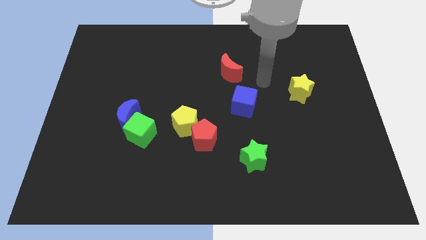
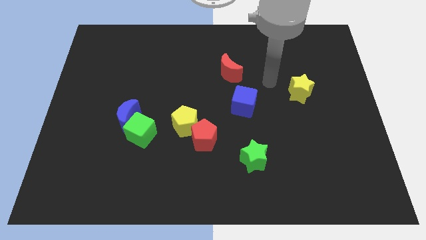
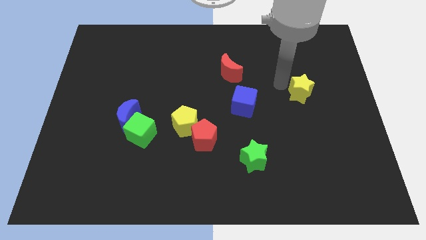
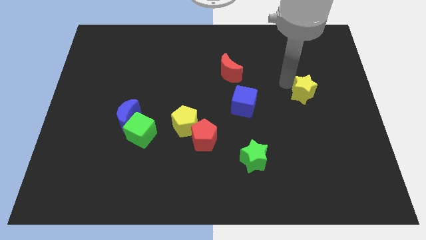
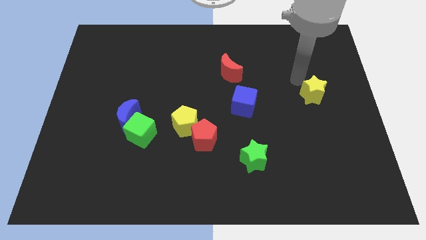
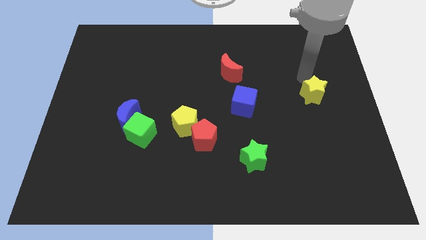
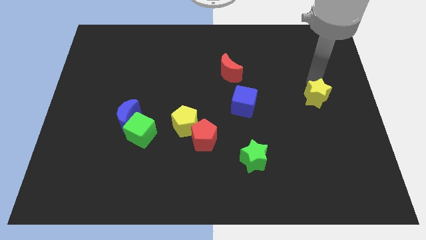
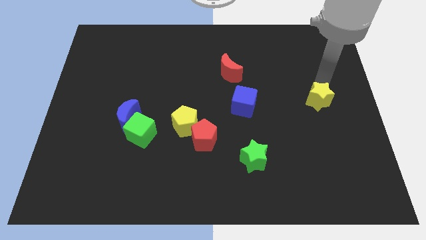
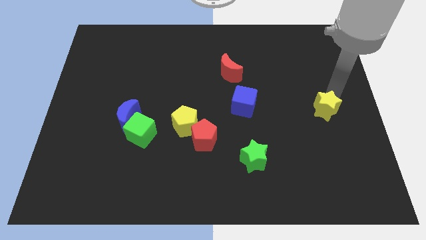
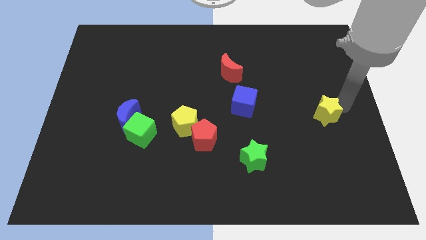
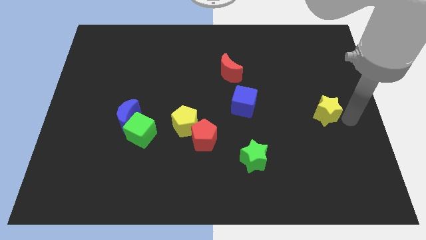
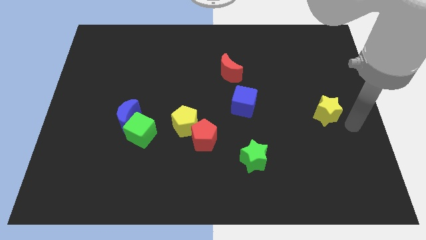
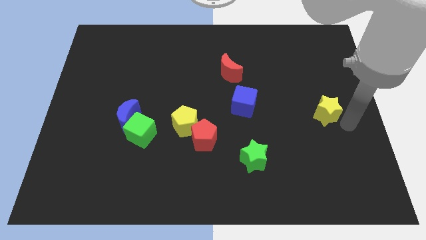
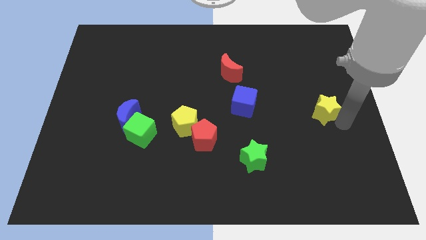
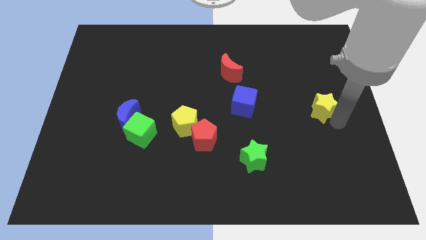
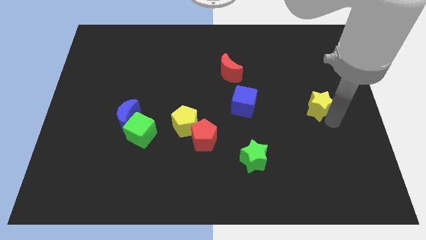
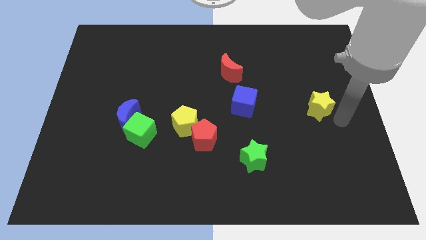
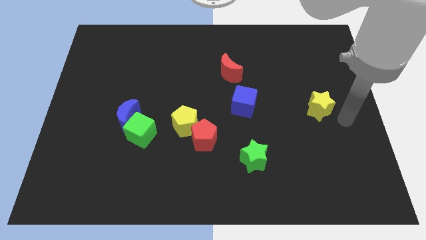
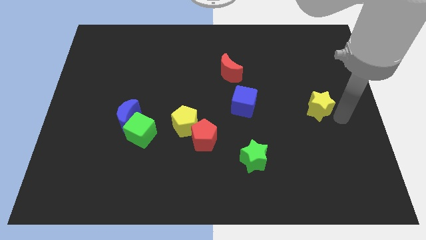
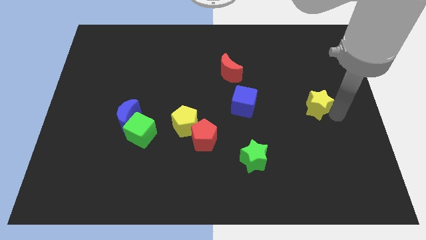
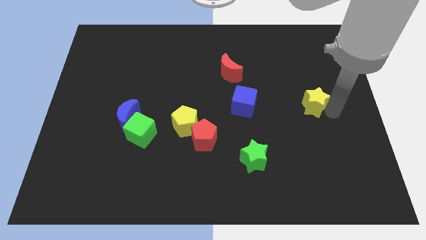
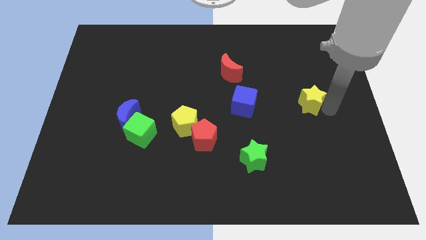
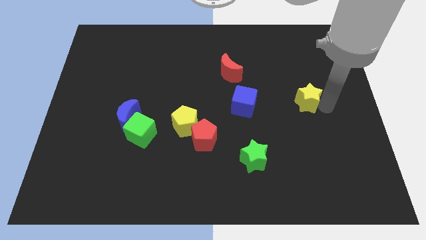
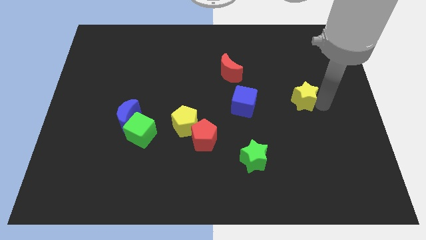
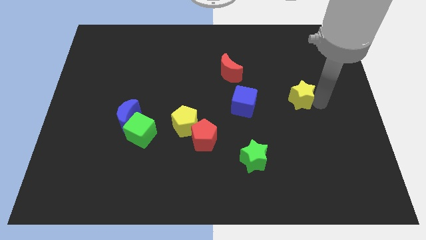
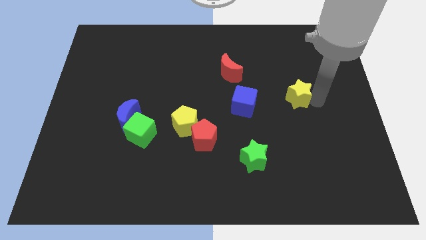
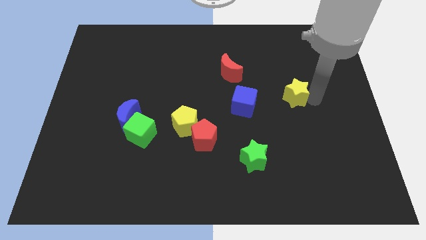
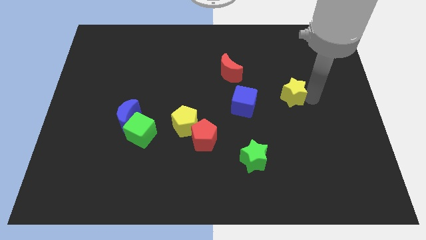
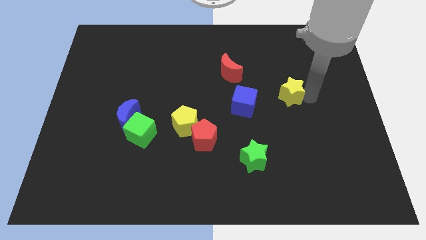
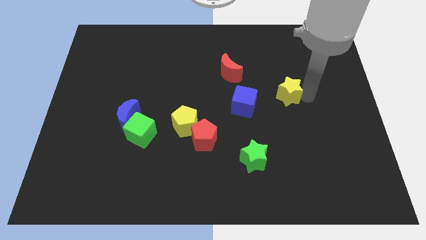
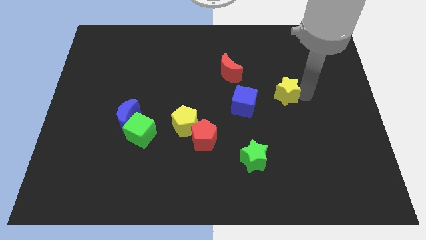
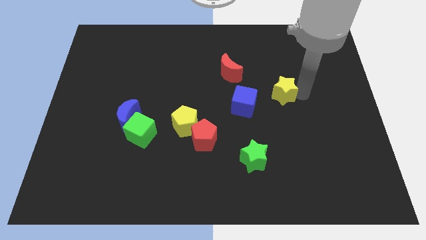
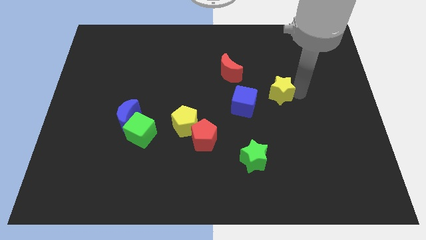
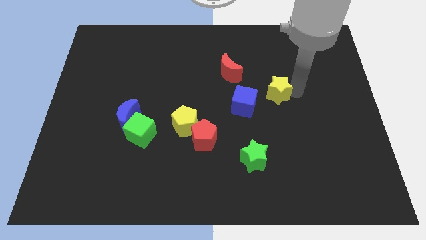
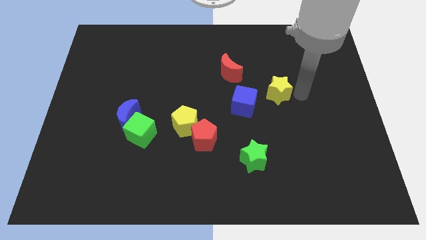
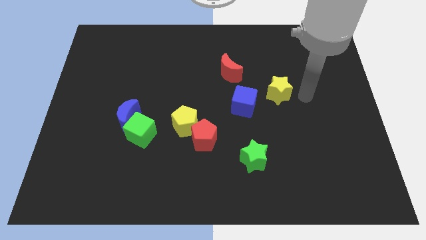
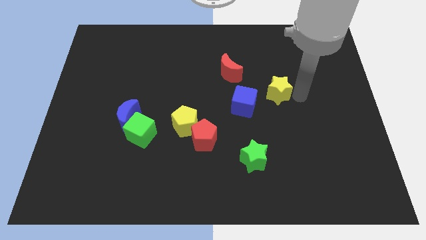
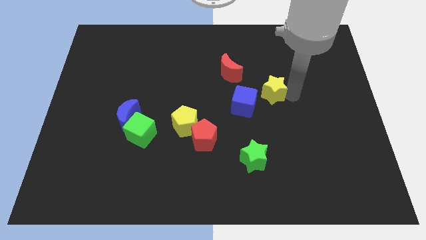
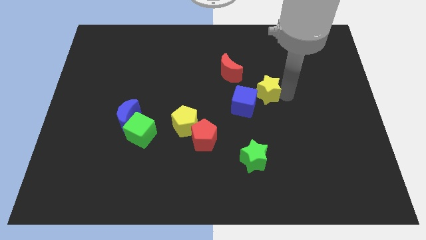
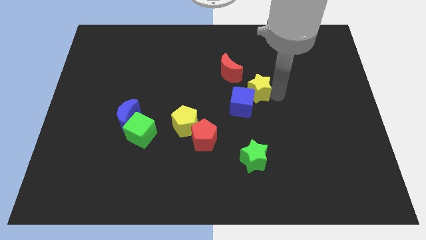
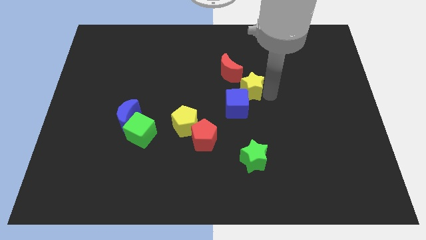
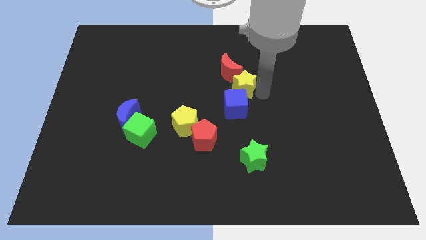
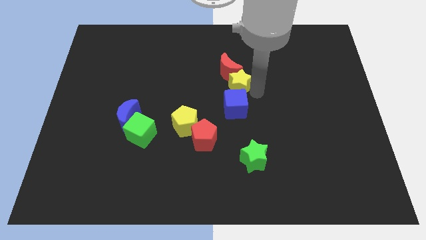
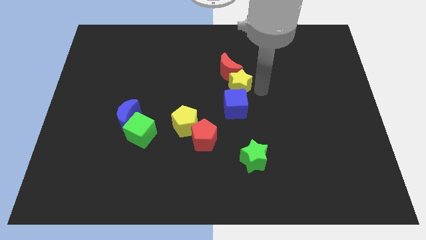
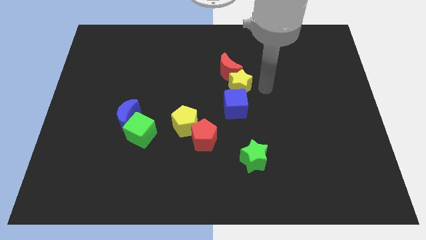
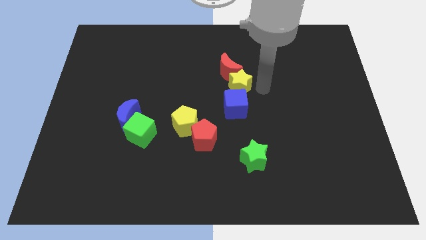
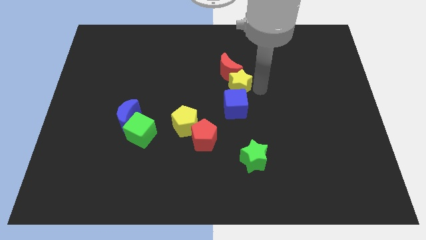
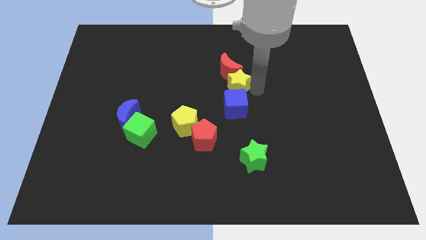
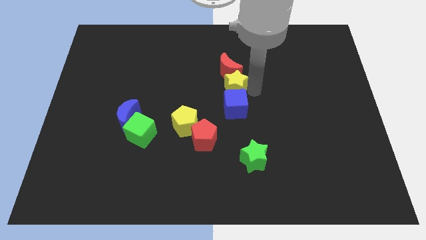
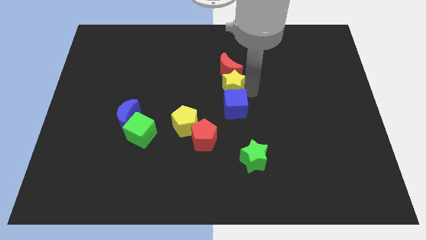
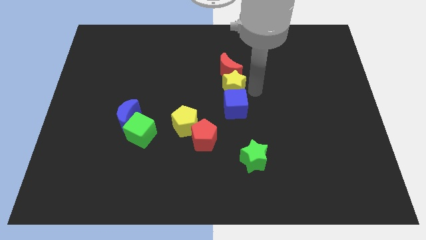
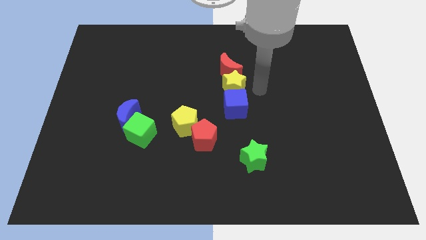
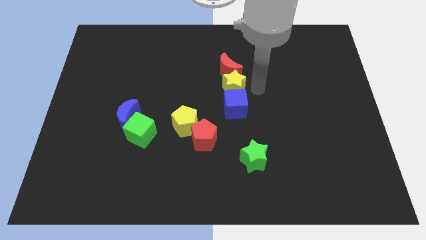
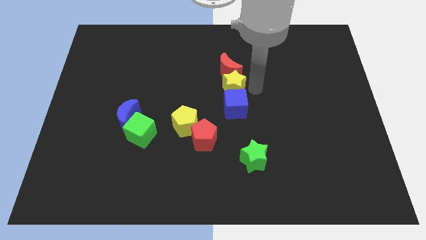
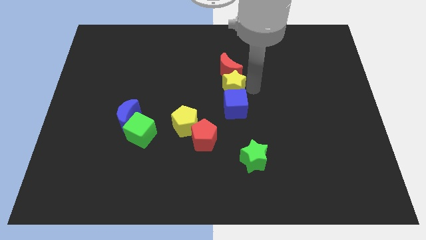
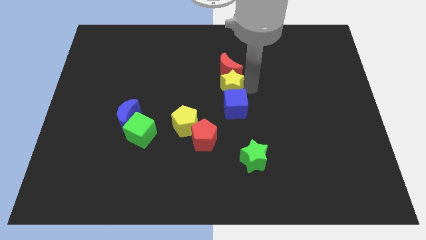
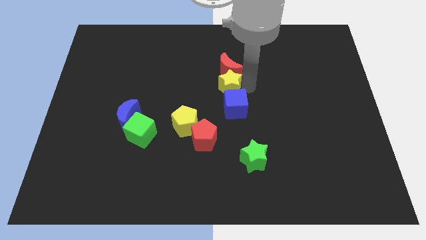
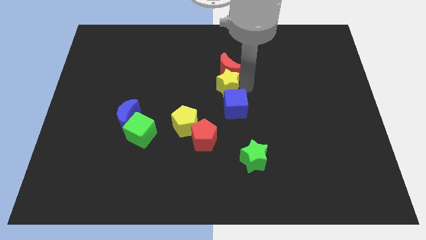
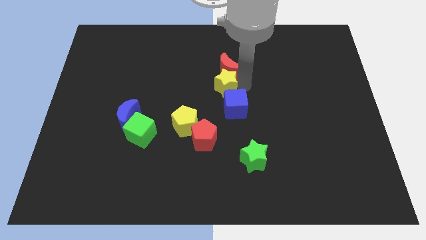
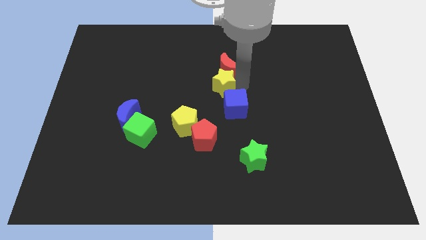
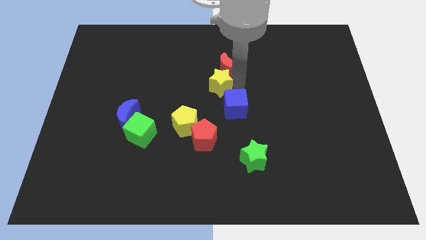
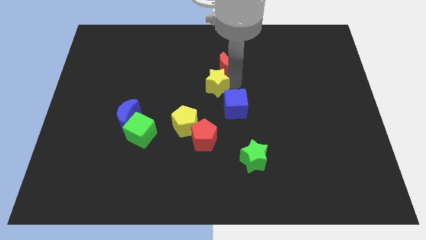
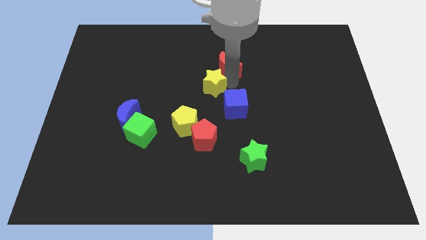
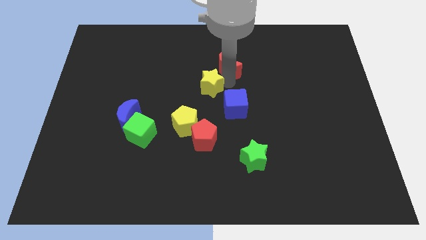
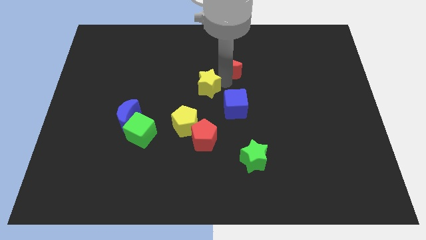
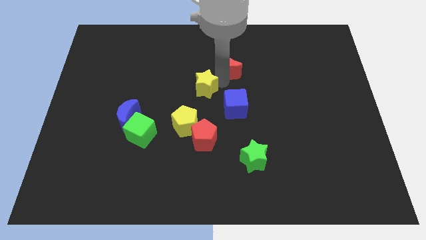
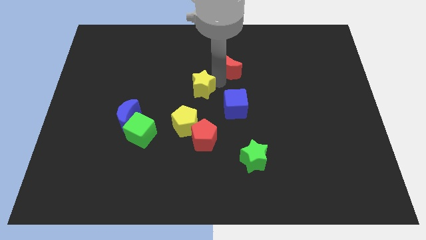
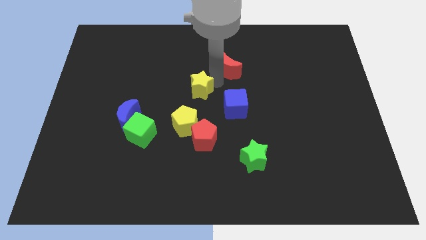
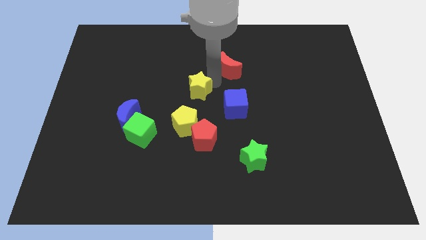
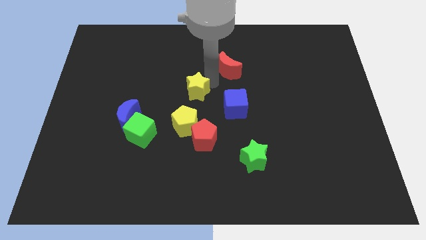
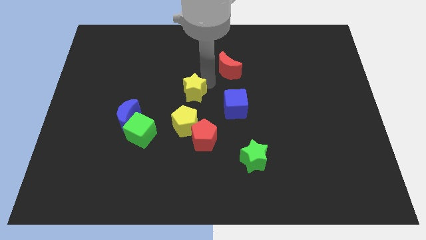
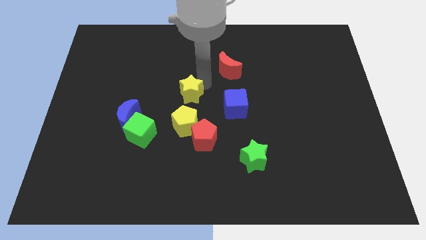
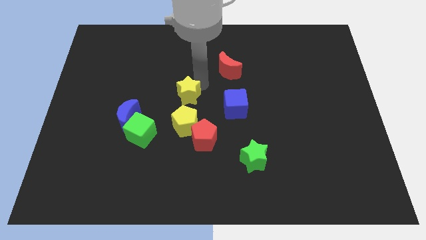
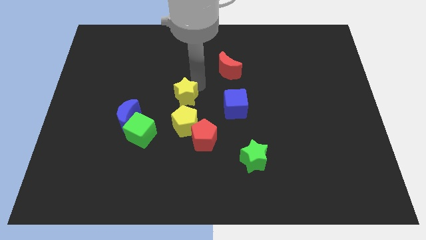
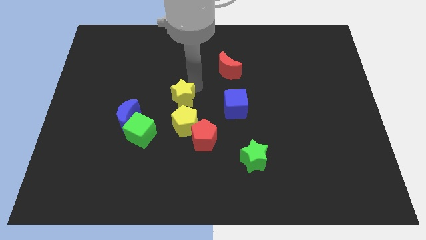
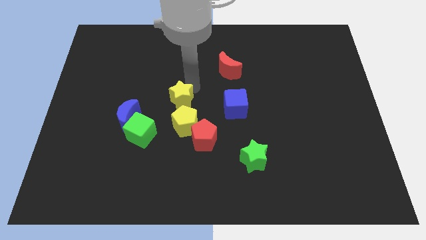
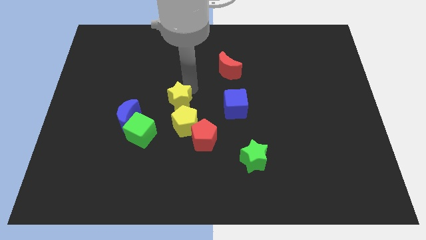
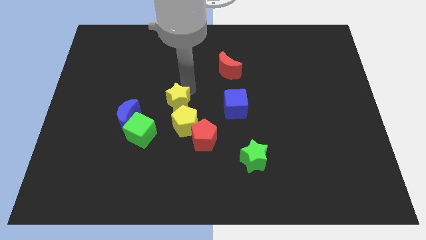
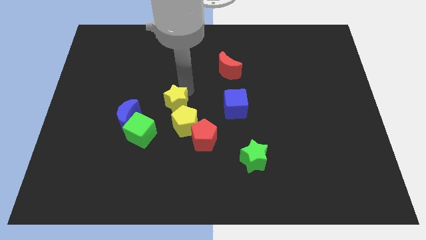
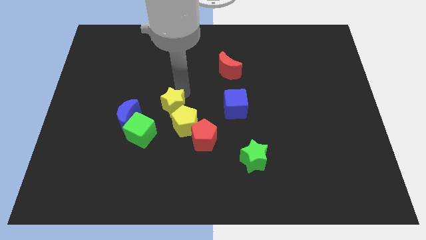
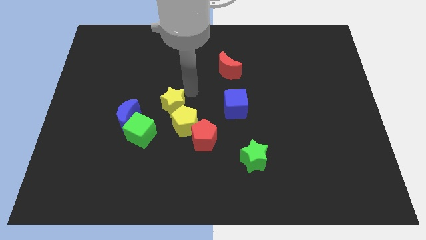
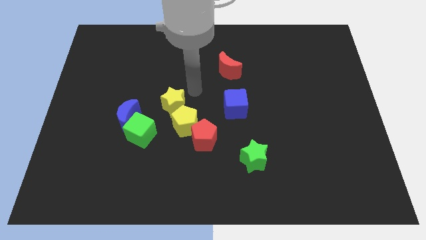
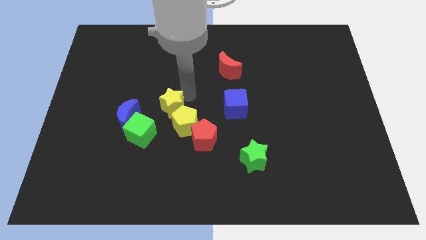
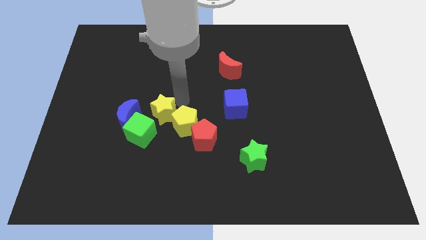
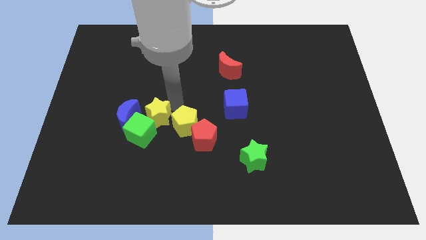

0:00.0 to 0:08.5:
move the yellow star towards the green cube
